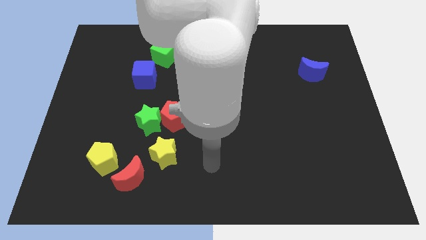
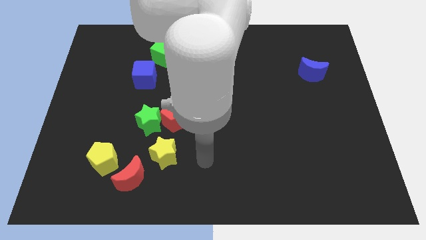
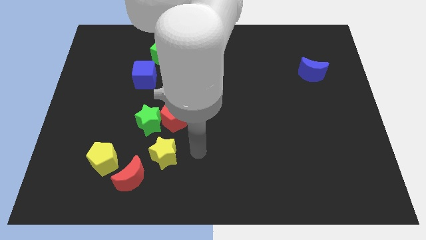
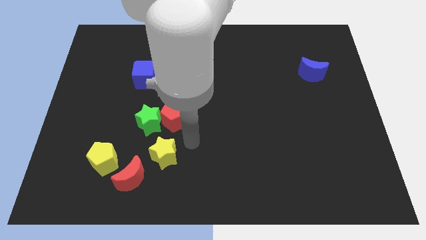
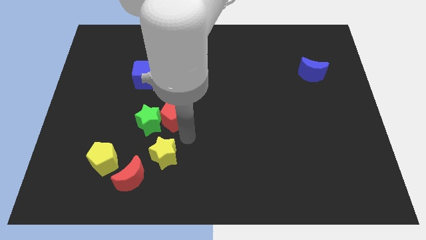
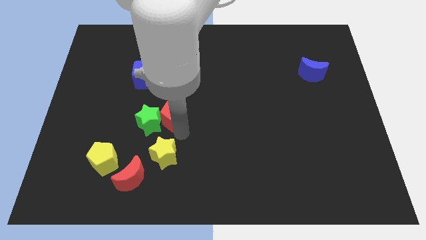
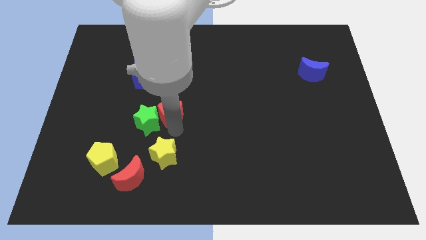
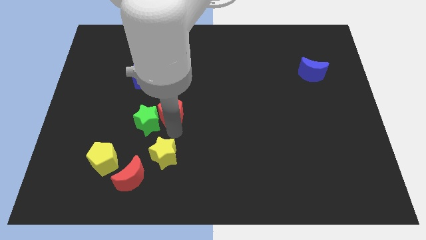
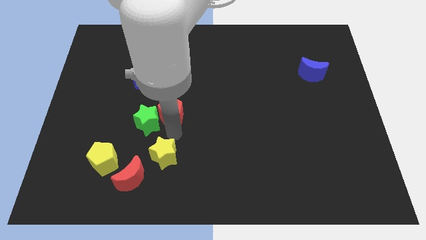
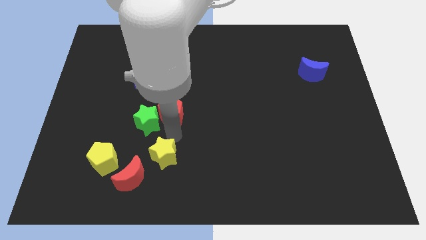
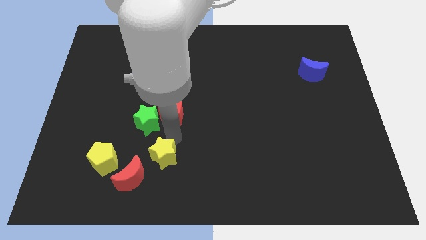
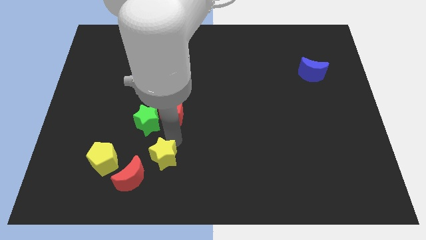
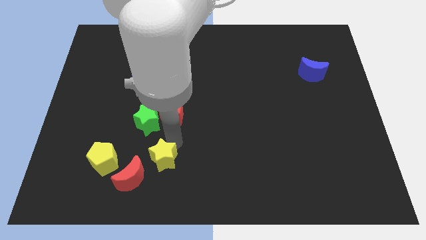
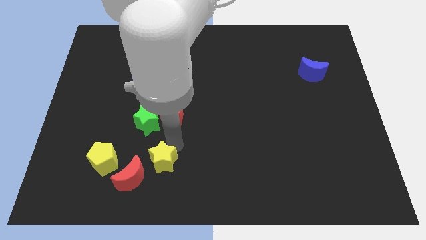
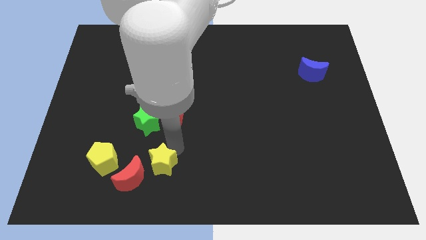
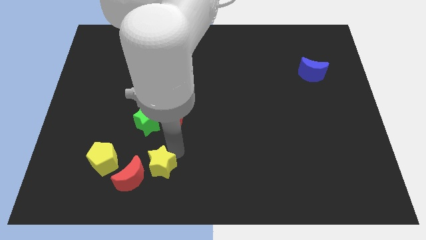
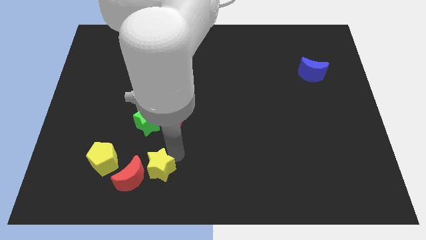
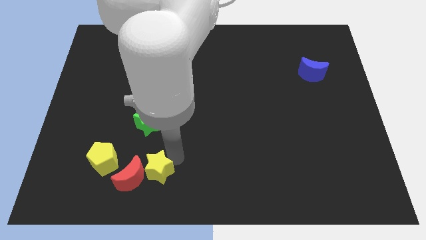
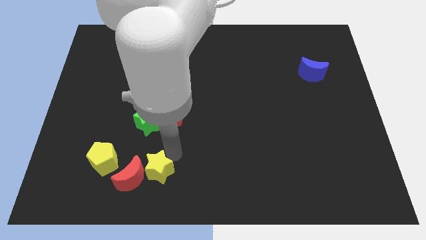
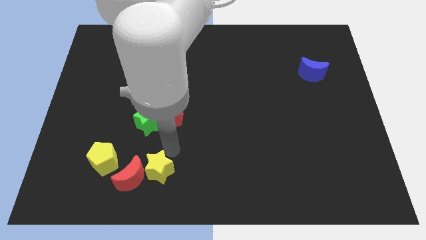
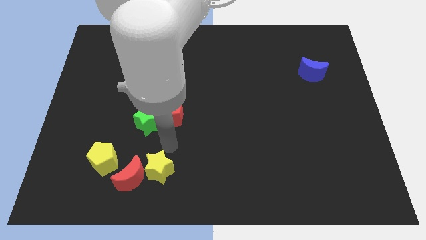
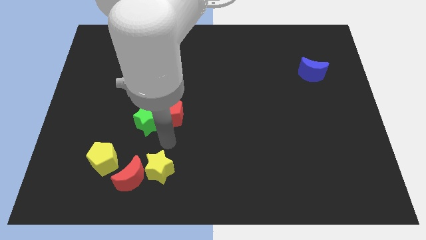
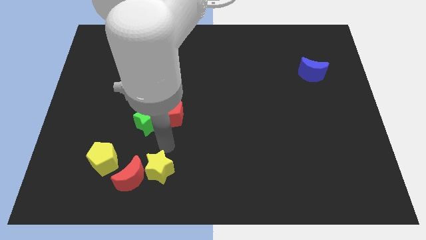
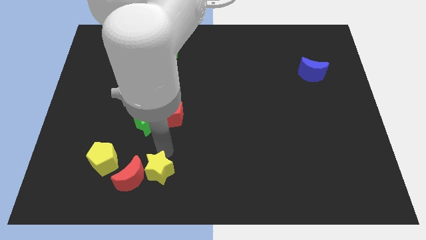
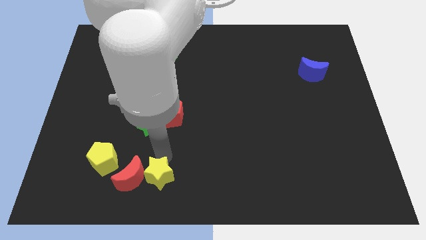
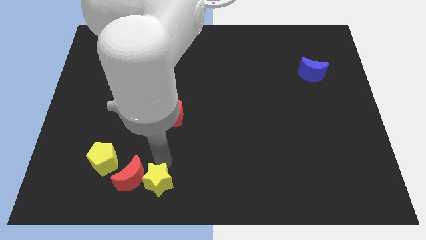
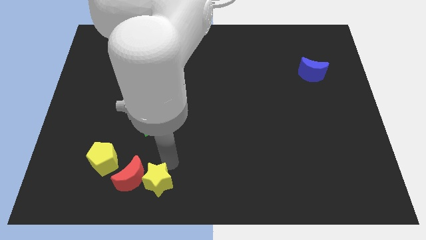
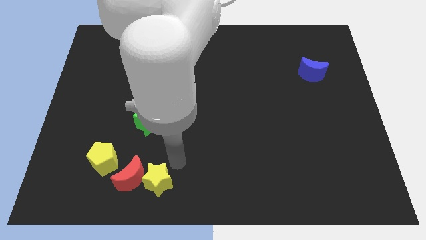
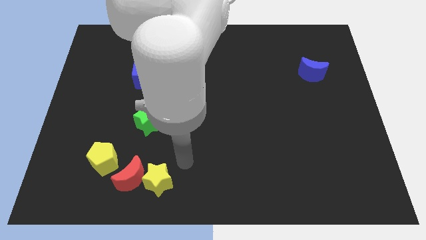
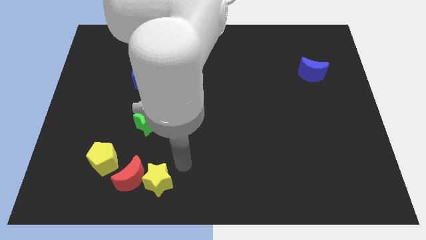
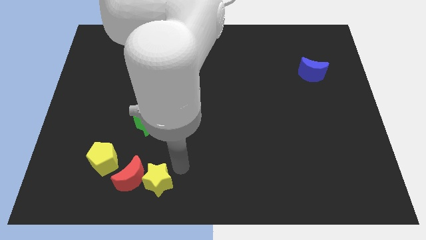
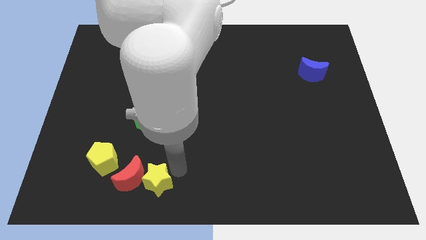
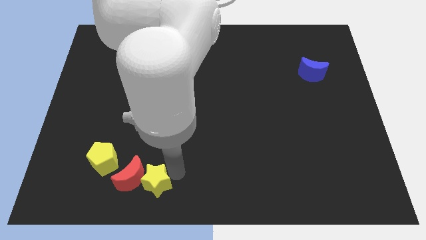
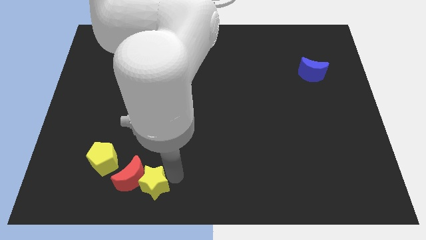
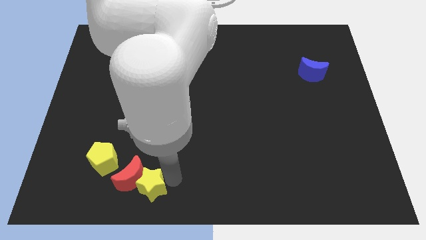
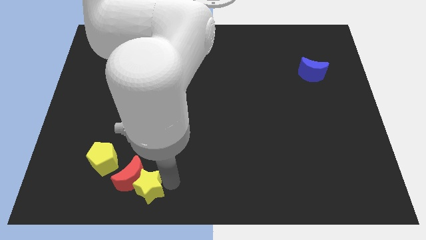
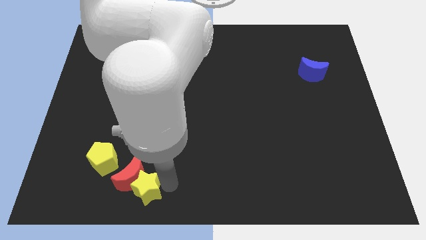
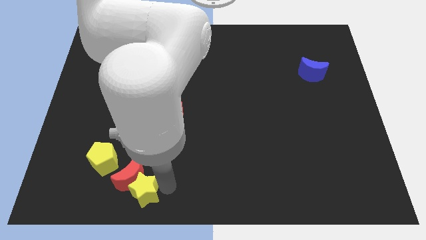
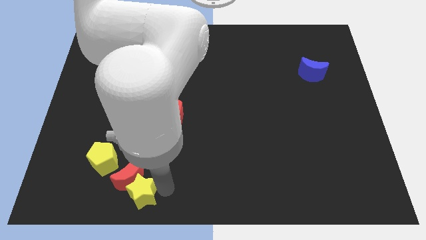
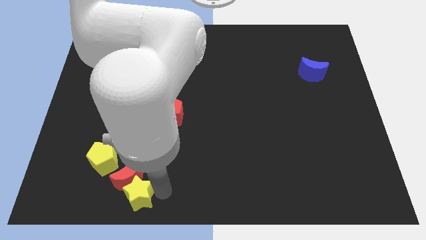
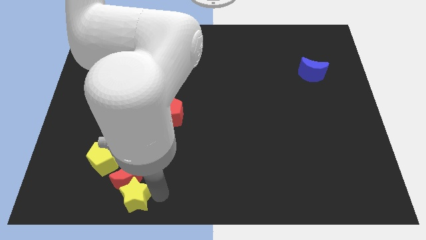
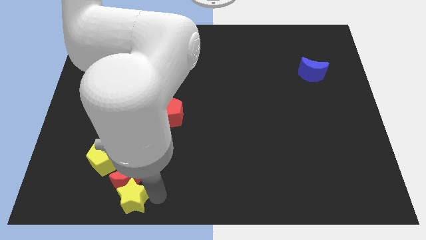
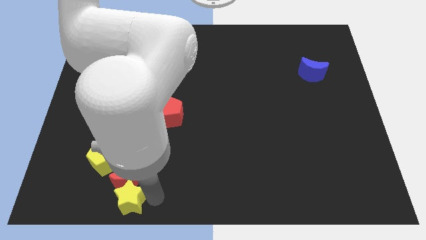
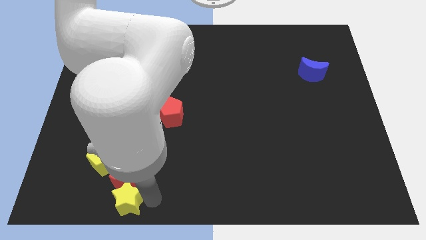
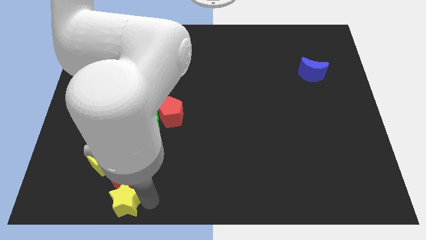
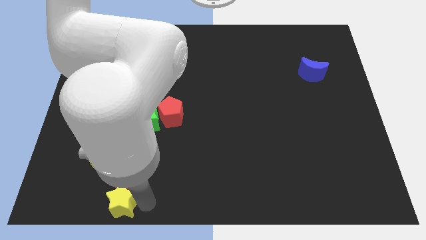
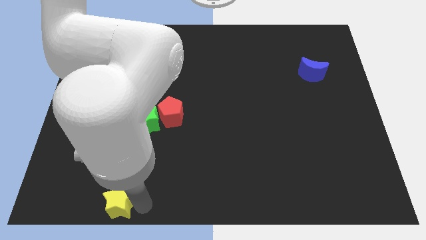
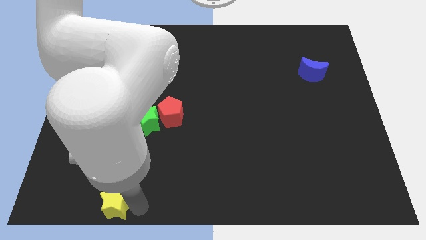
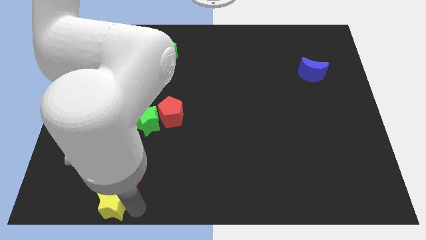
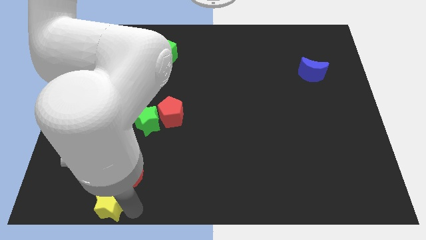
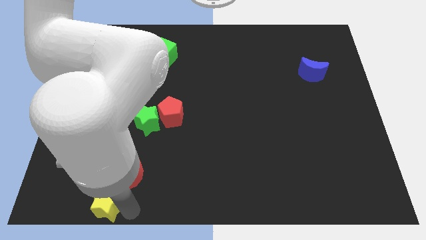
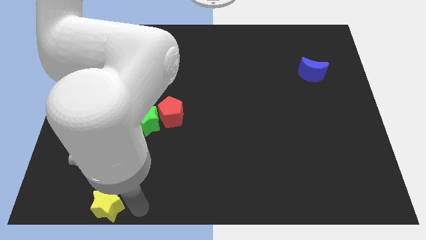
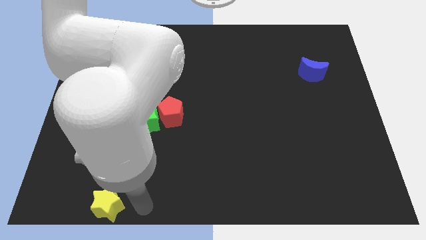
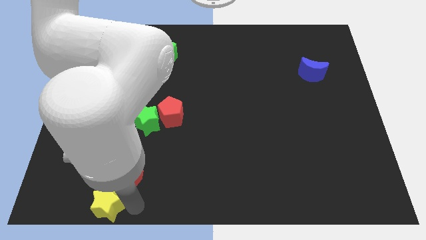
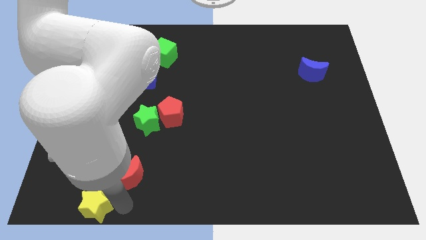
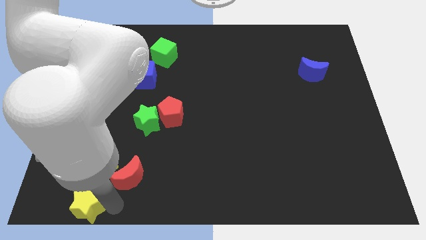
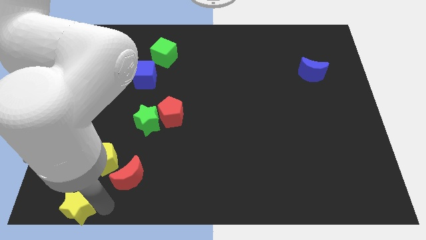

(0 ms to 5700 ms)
put the yellow star to the bottom left

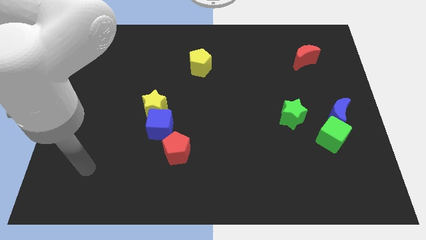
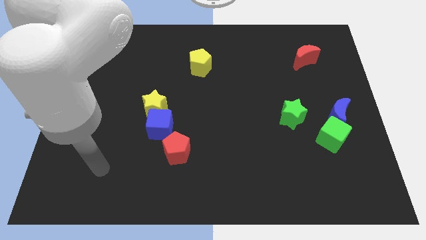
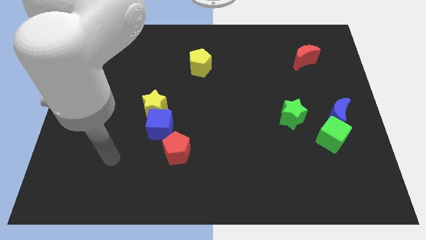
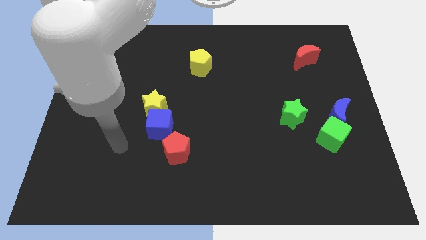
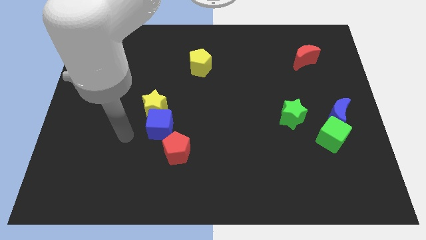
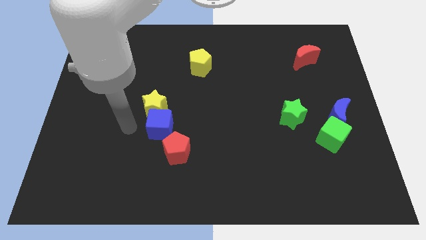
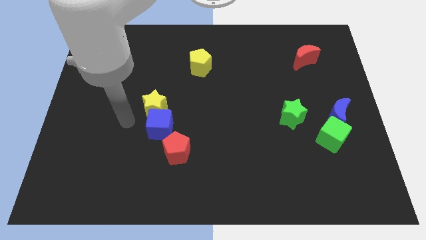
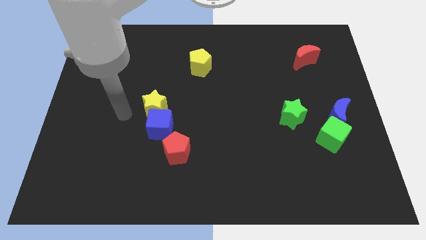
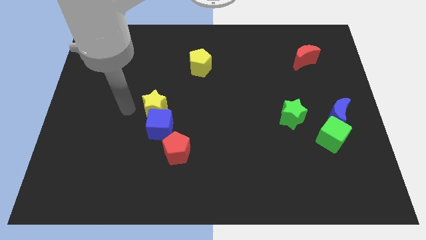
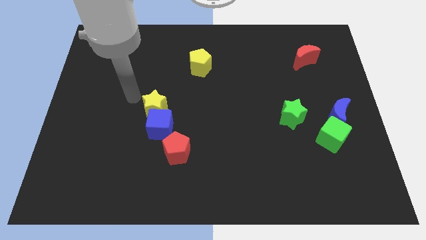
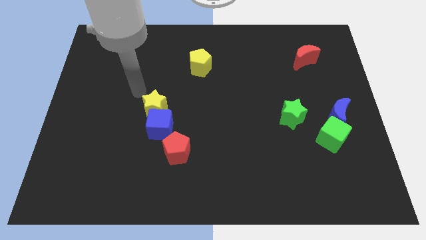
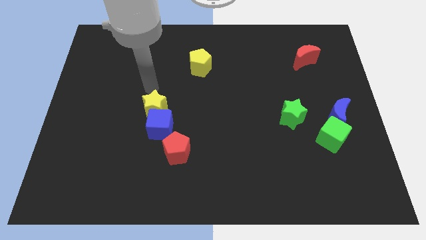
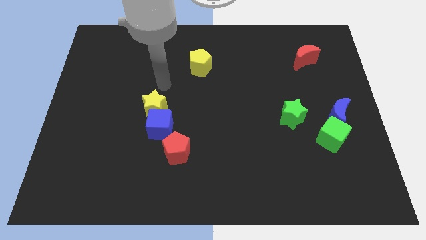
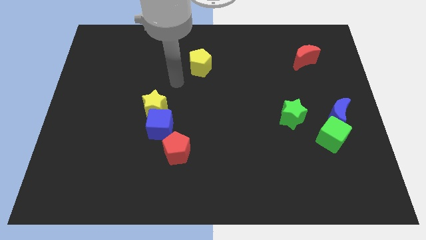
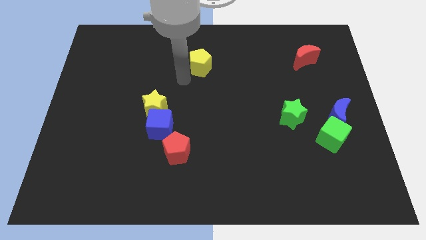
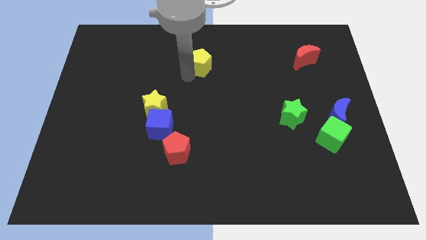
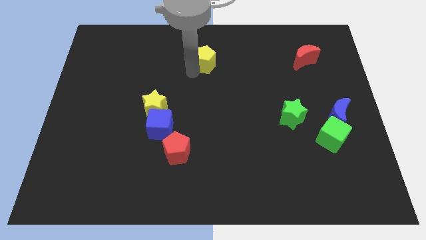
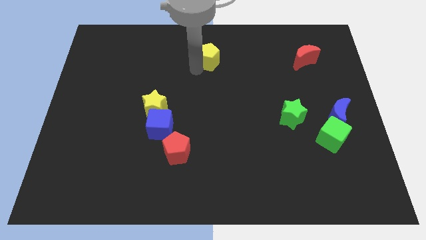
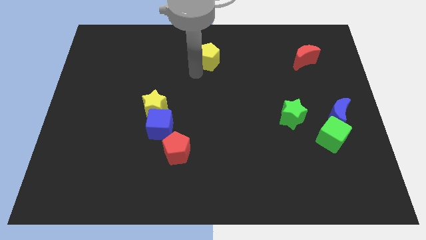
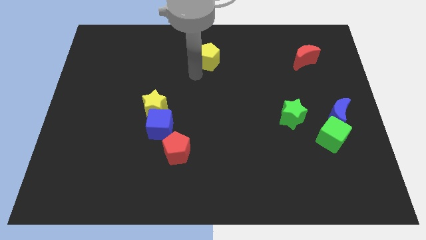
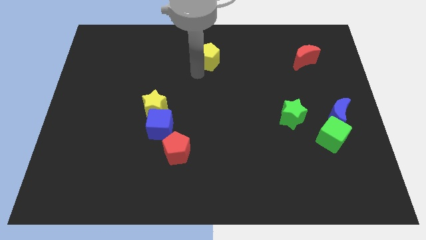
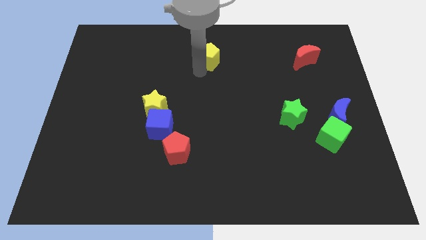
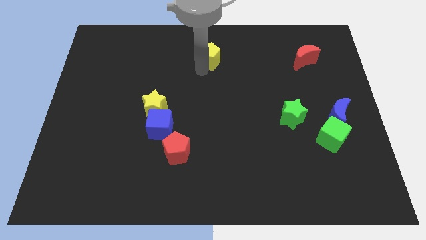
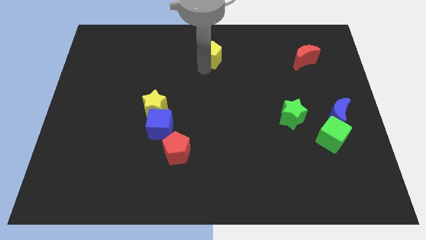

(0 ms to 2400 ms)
put the yellow pentagon to the top
